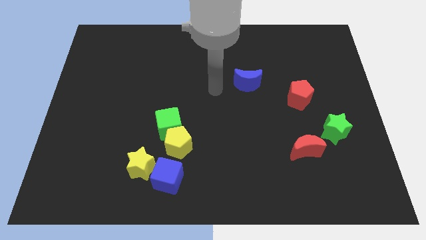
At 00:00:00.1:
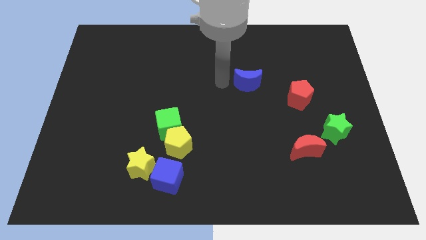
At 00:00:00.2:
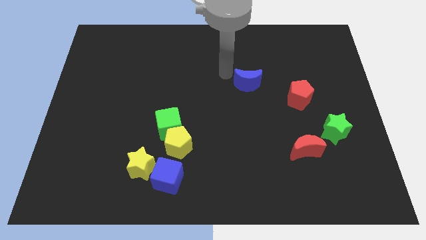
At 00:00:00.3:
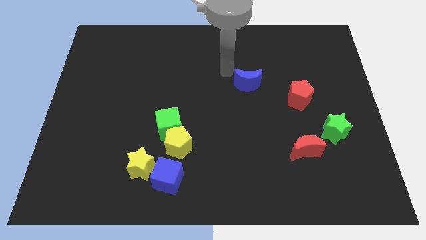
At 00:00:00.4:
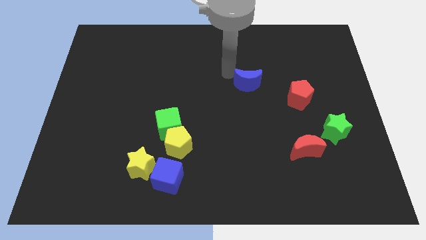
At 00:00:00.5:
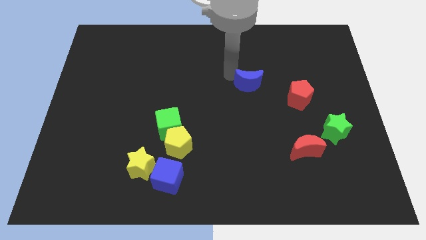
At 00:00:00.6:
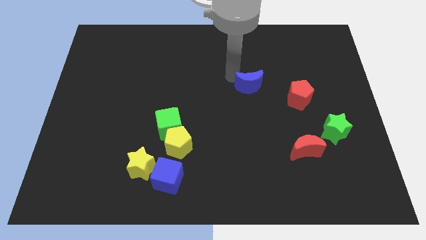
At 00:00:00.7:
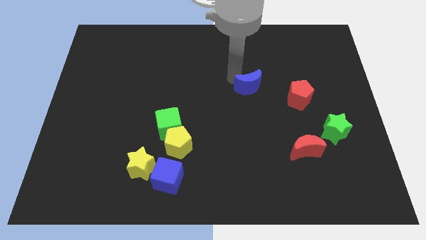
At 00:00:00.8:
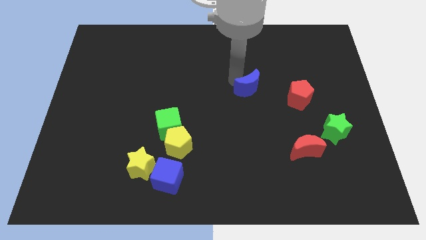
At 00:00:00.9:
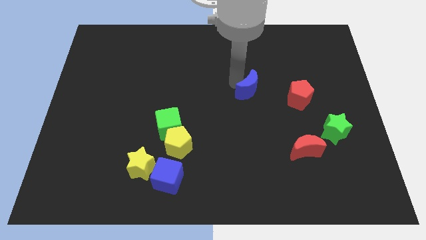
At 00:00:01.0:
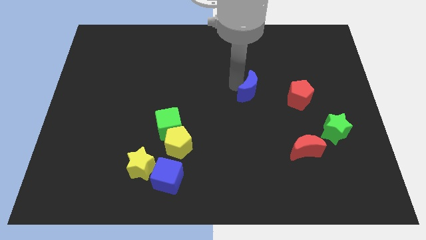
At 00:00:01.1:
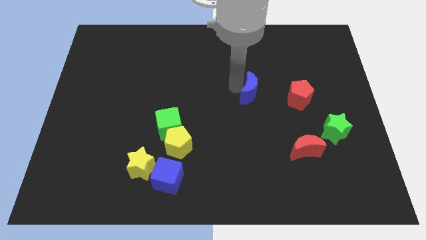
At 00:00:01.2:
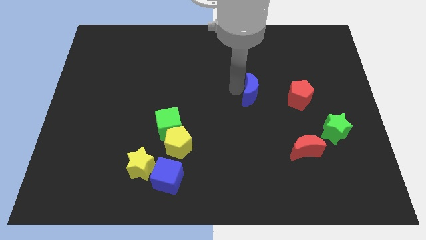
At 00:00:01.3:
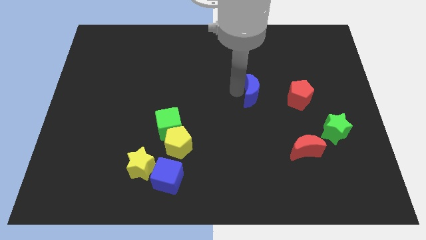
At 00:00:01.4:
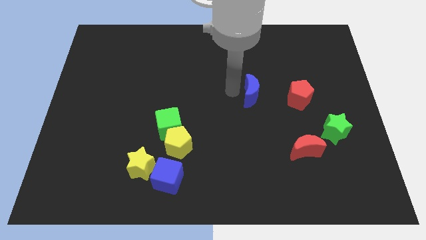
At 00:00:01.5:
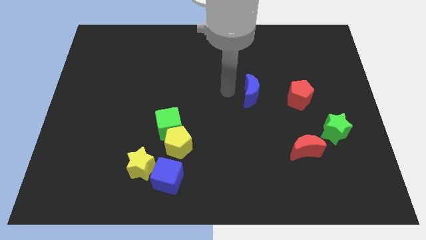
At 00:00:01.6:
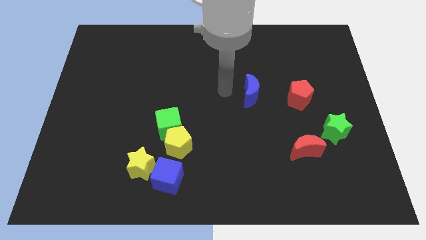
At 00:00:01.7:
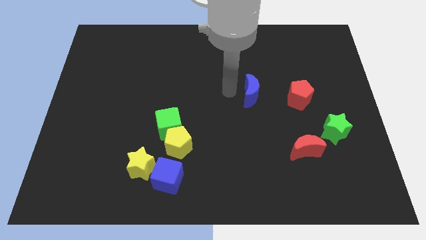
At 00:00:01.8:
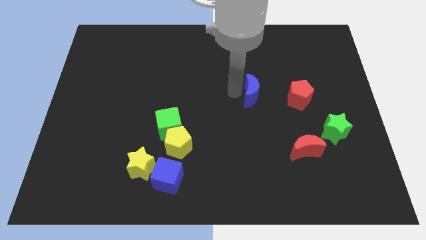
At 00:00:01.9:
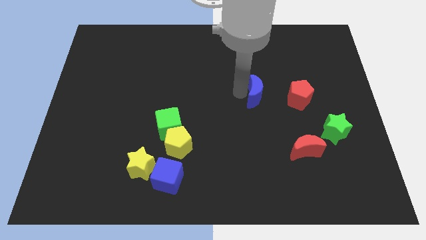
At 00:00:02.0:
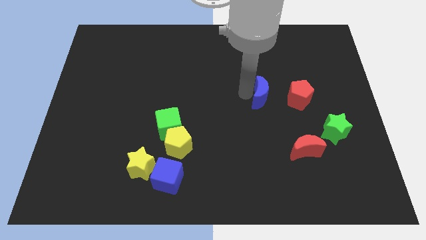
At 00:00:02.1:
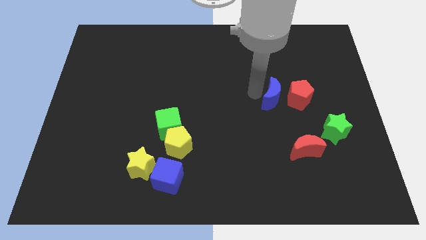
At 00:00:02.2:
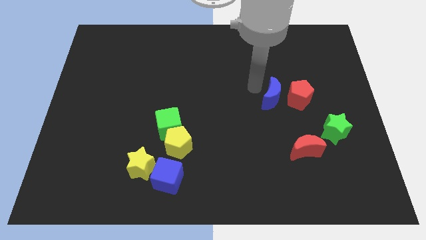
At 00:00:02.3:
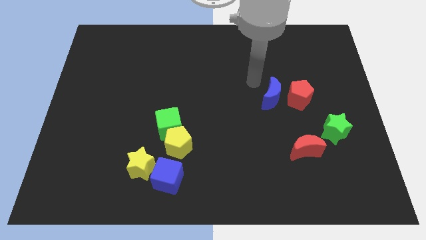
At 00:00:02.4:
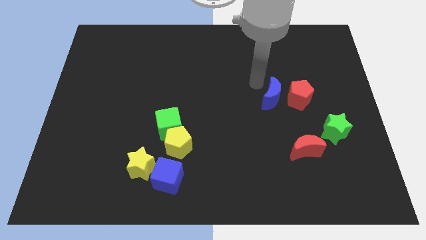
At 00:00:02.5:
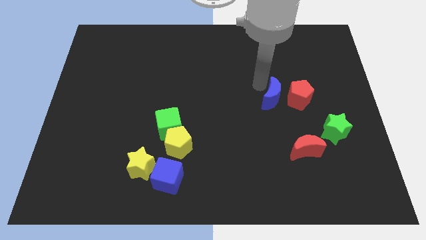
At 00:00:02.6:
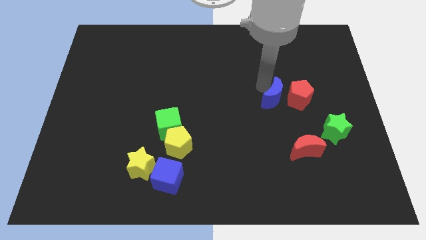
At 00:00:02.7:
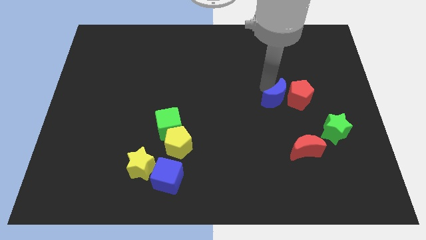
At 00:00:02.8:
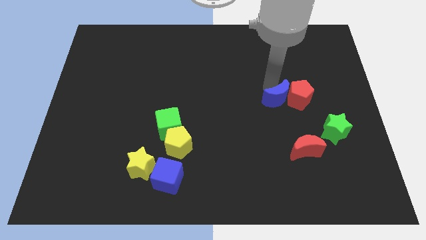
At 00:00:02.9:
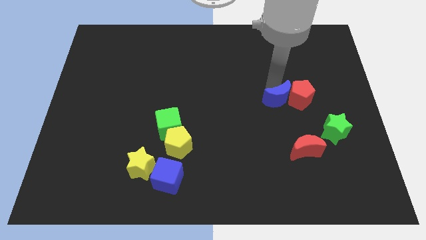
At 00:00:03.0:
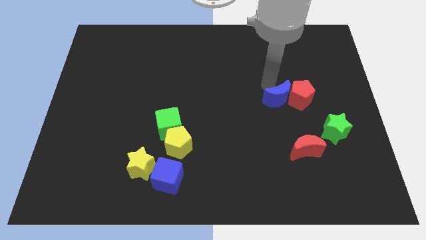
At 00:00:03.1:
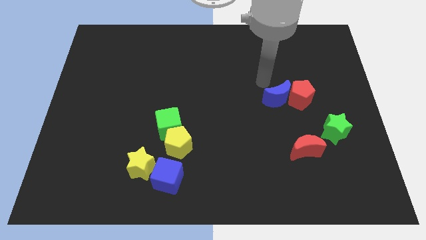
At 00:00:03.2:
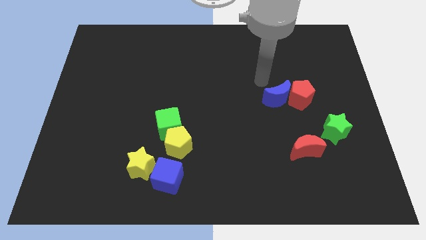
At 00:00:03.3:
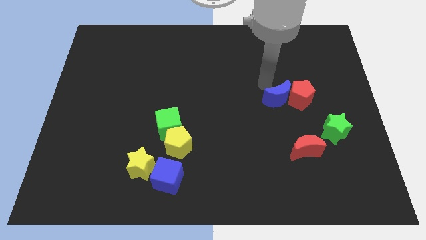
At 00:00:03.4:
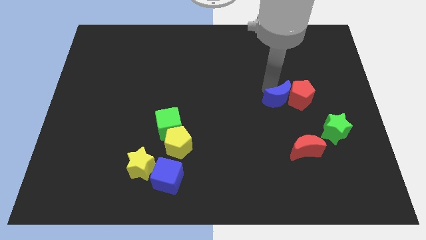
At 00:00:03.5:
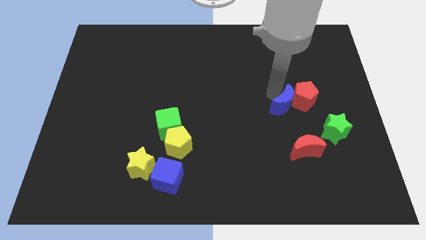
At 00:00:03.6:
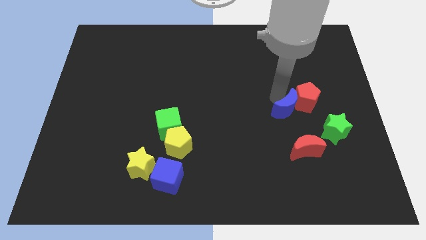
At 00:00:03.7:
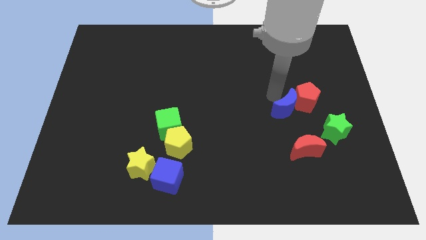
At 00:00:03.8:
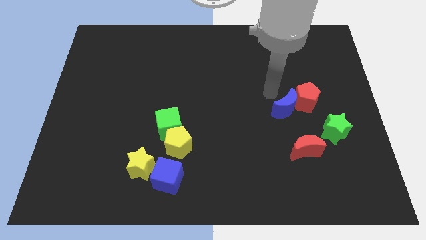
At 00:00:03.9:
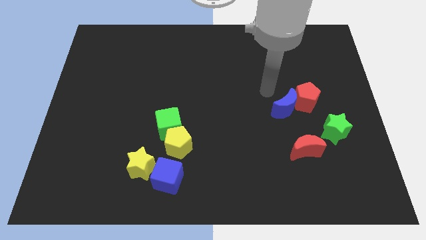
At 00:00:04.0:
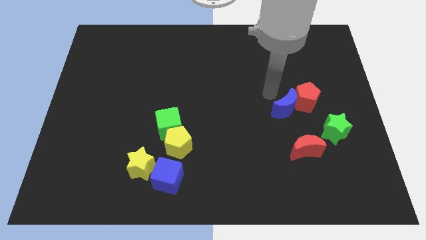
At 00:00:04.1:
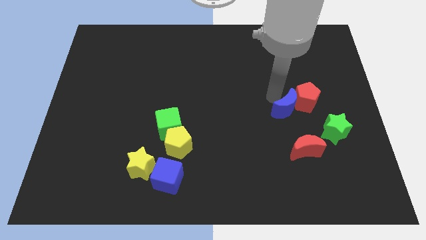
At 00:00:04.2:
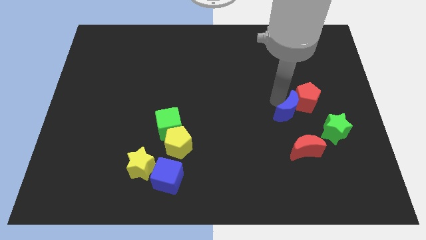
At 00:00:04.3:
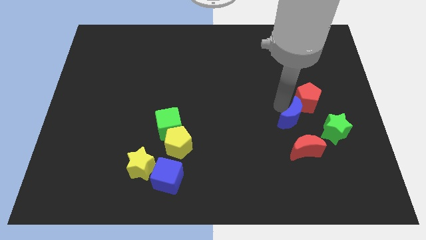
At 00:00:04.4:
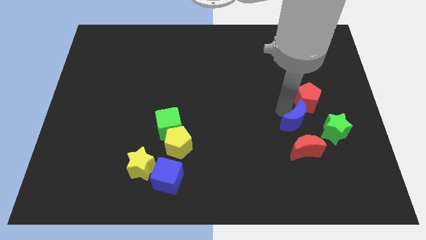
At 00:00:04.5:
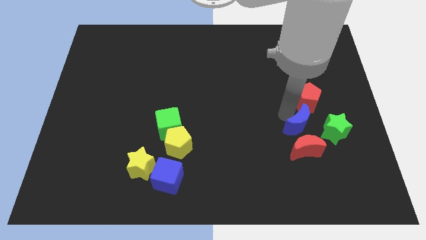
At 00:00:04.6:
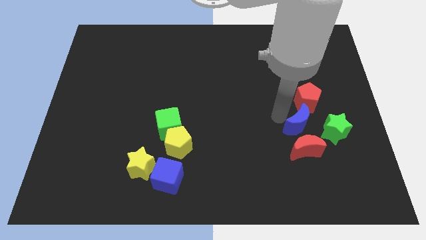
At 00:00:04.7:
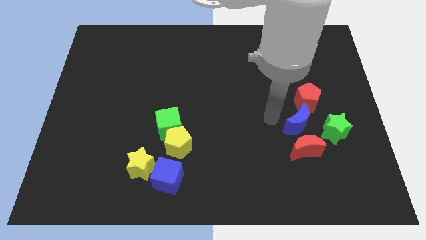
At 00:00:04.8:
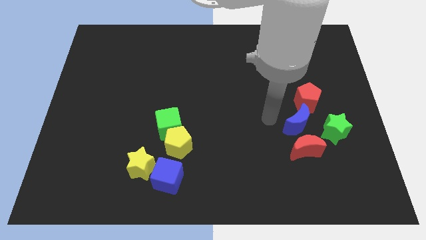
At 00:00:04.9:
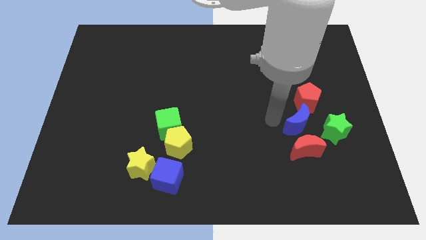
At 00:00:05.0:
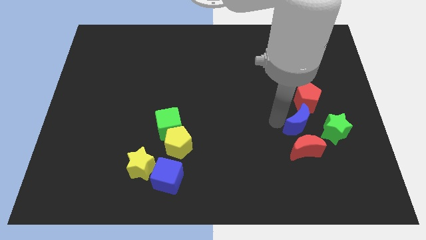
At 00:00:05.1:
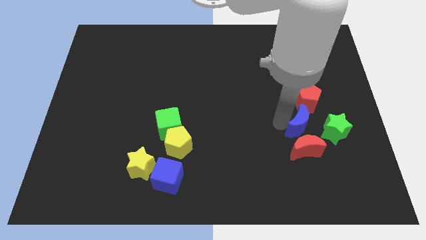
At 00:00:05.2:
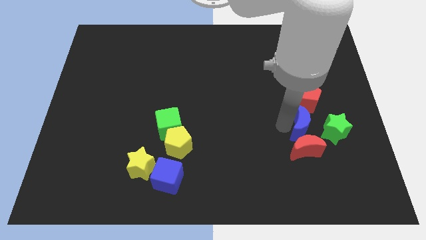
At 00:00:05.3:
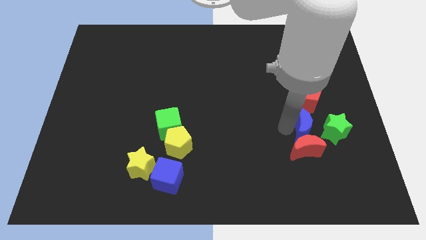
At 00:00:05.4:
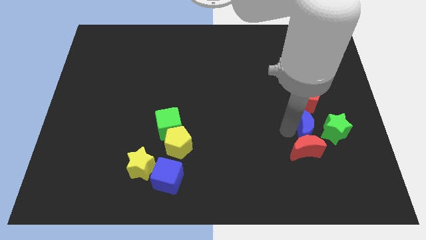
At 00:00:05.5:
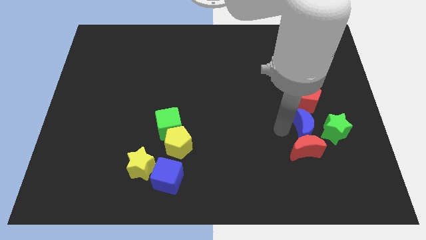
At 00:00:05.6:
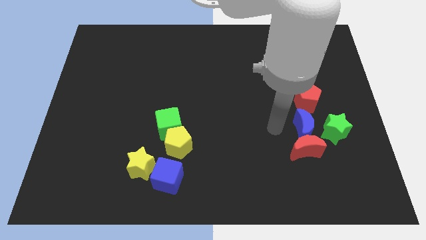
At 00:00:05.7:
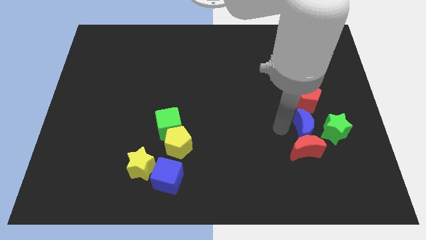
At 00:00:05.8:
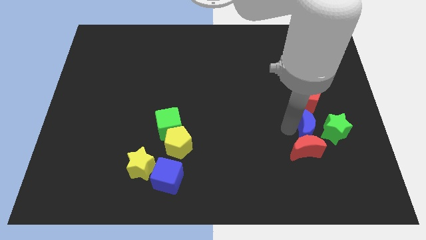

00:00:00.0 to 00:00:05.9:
put the blue moon to the green star

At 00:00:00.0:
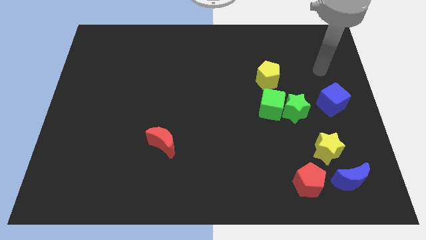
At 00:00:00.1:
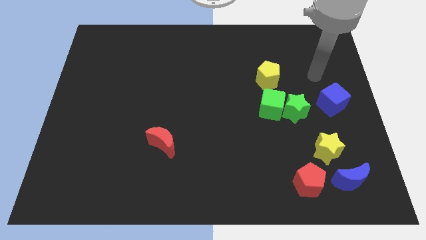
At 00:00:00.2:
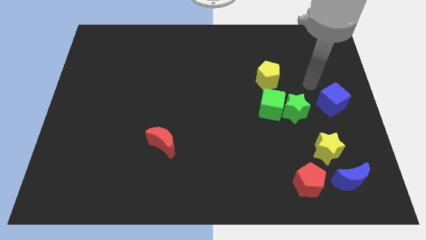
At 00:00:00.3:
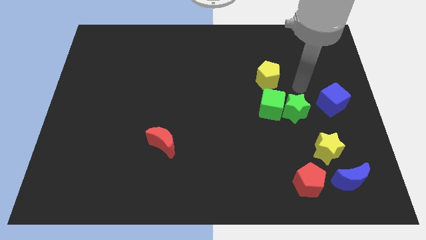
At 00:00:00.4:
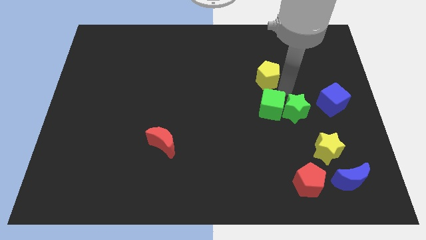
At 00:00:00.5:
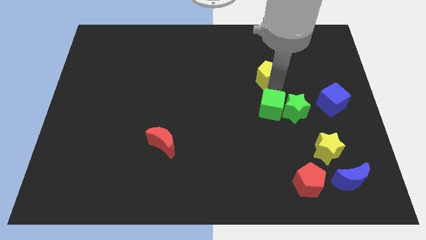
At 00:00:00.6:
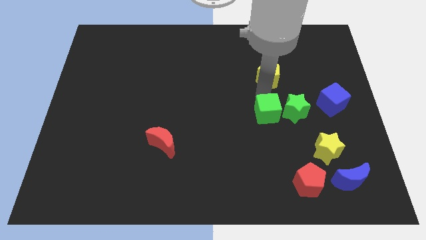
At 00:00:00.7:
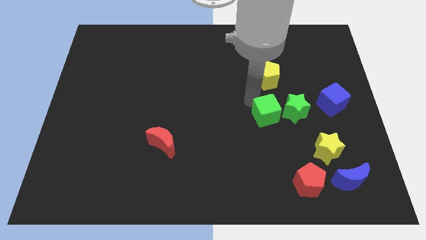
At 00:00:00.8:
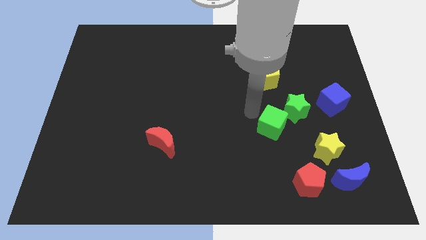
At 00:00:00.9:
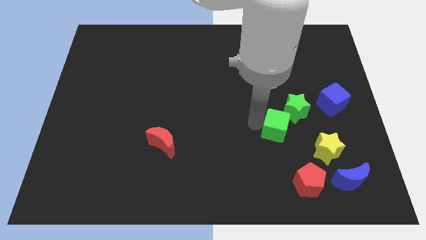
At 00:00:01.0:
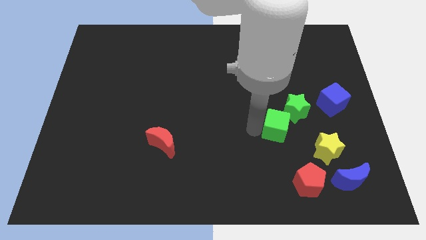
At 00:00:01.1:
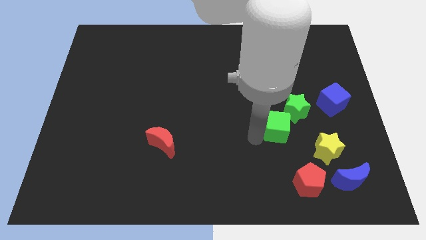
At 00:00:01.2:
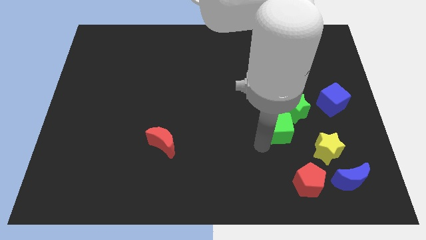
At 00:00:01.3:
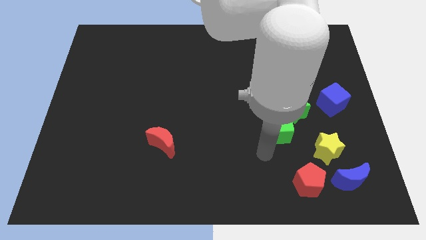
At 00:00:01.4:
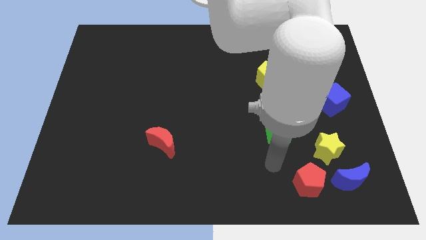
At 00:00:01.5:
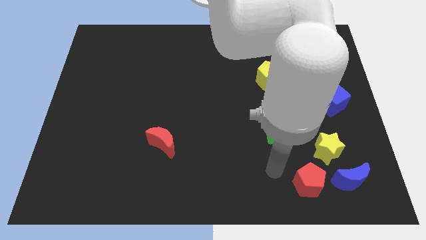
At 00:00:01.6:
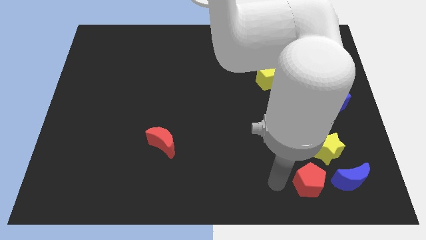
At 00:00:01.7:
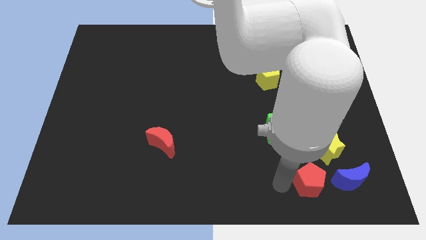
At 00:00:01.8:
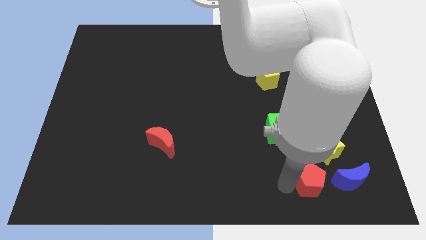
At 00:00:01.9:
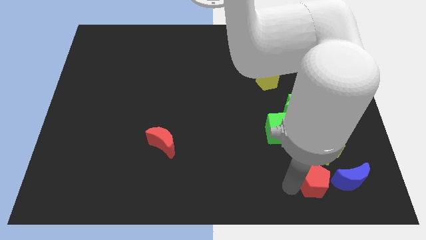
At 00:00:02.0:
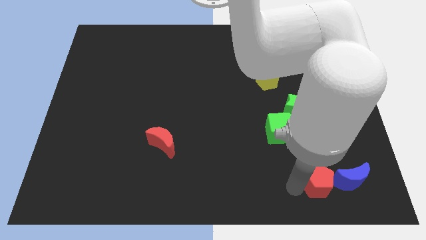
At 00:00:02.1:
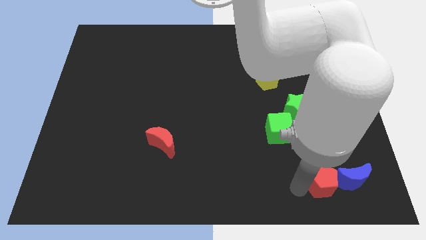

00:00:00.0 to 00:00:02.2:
push the red pentagon close to the blue moon
